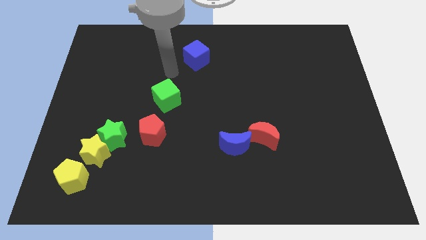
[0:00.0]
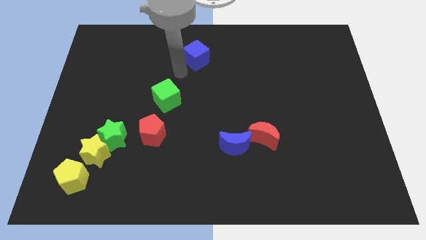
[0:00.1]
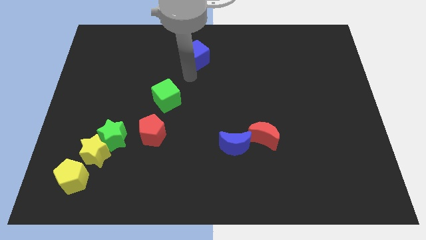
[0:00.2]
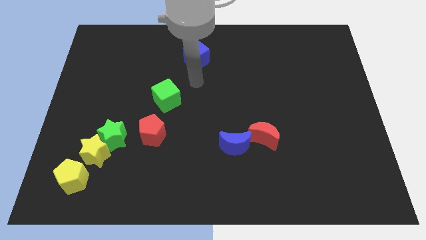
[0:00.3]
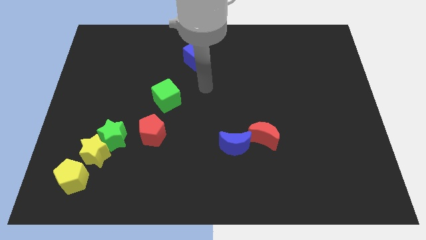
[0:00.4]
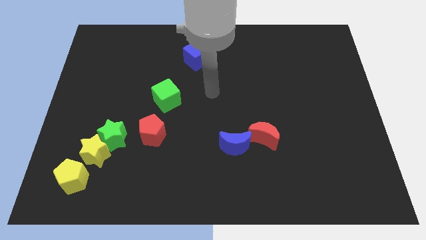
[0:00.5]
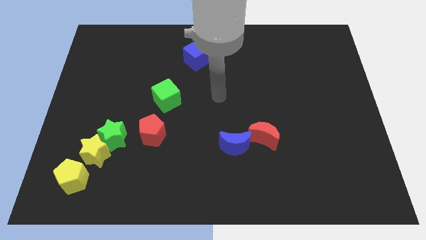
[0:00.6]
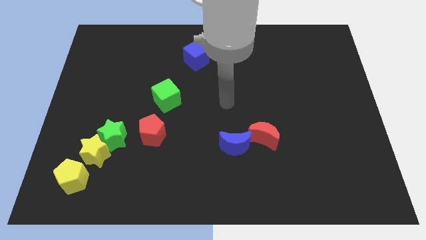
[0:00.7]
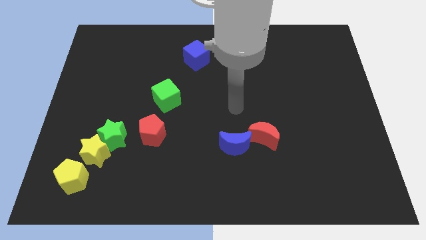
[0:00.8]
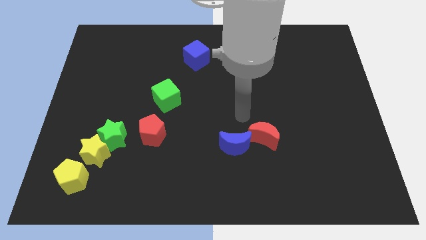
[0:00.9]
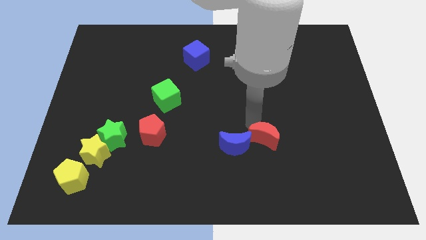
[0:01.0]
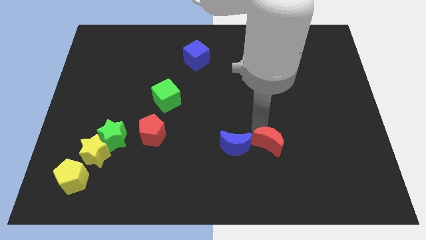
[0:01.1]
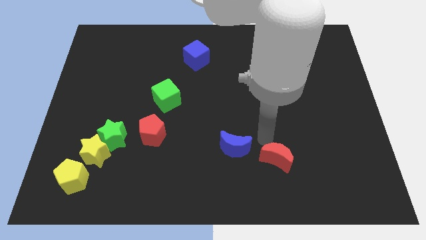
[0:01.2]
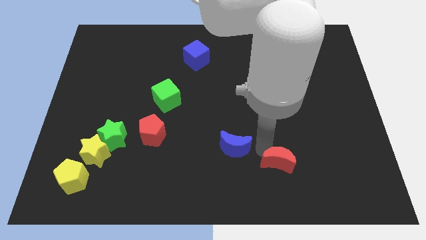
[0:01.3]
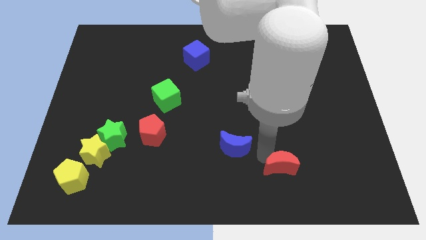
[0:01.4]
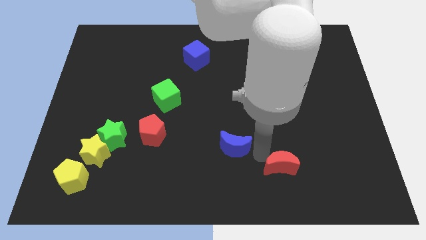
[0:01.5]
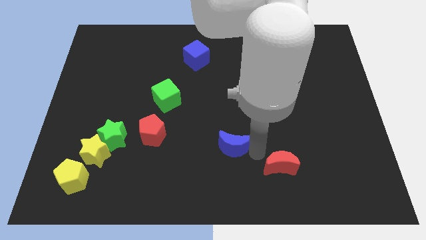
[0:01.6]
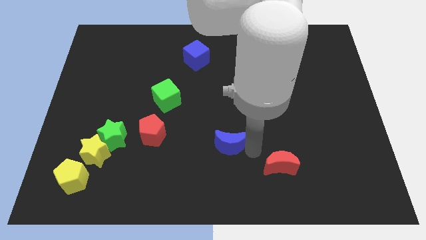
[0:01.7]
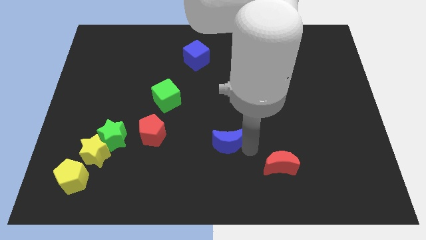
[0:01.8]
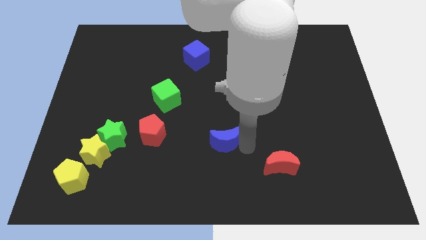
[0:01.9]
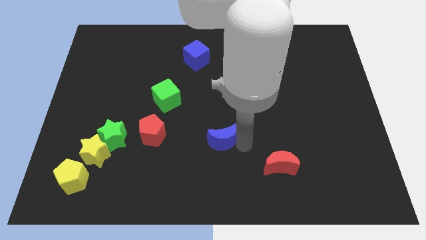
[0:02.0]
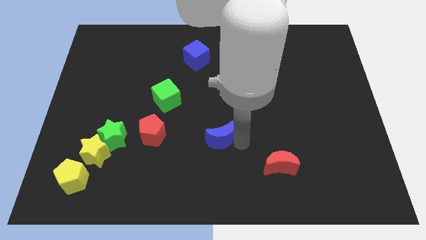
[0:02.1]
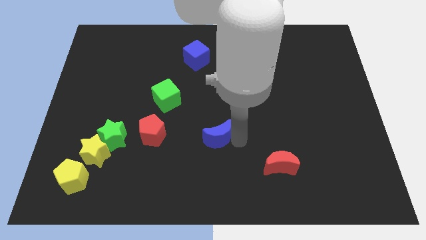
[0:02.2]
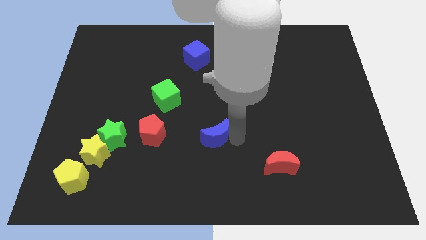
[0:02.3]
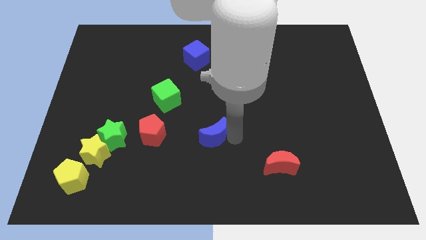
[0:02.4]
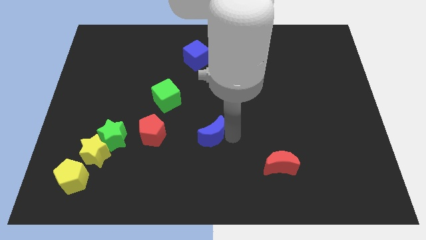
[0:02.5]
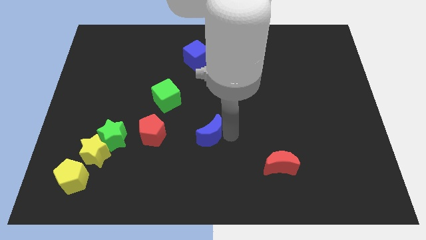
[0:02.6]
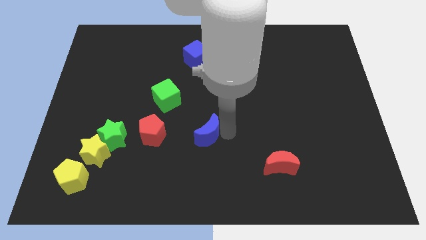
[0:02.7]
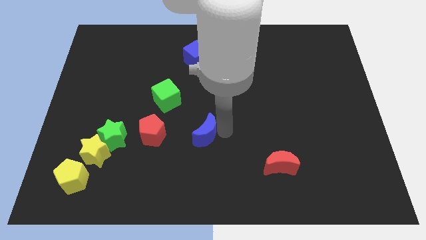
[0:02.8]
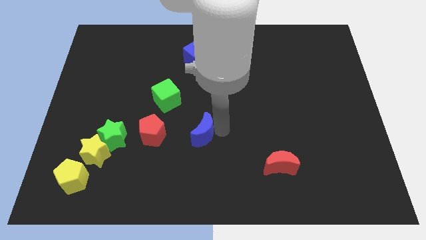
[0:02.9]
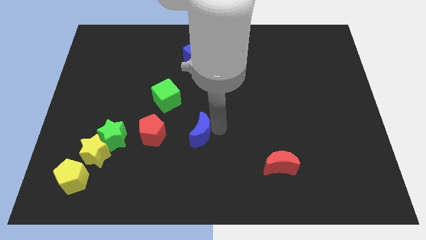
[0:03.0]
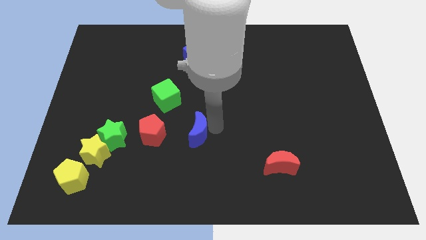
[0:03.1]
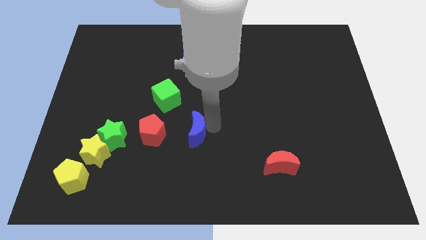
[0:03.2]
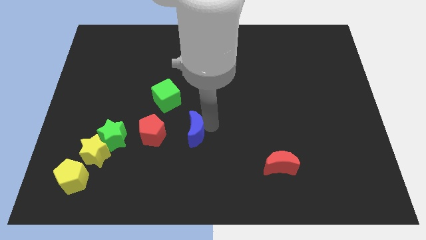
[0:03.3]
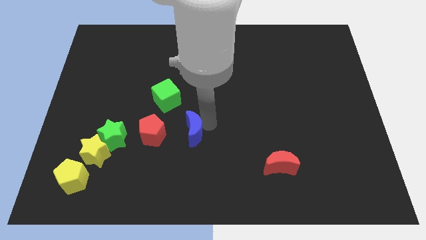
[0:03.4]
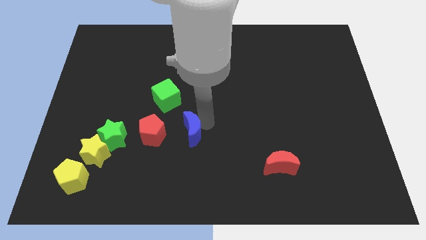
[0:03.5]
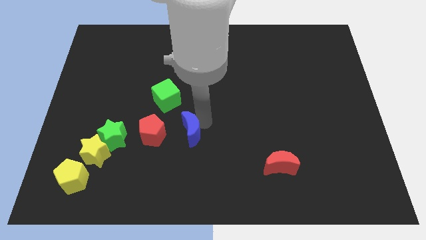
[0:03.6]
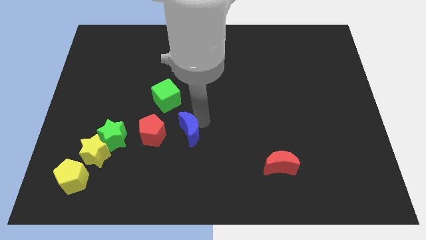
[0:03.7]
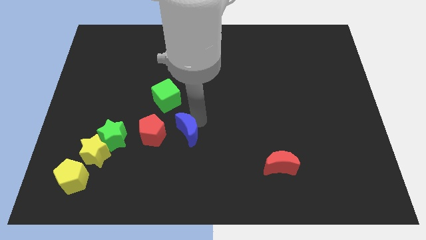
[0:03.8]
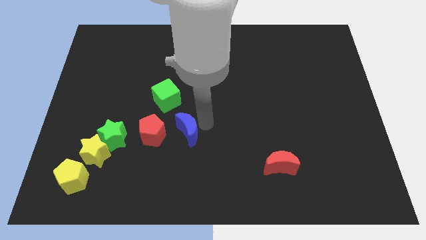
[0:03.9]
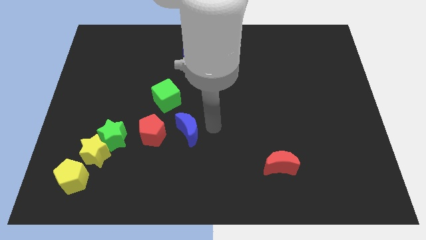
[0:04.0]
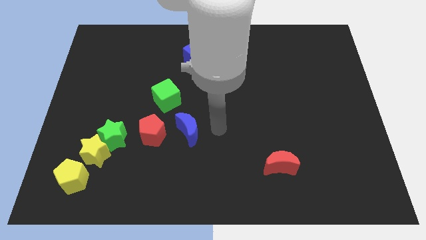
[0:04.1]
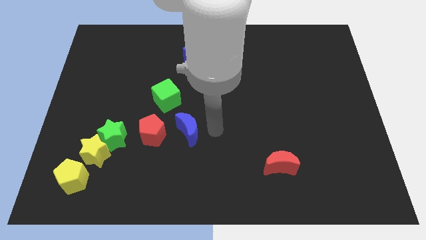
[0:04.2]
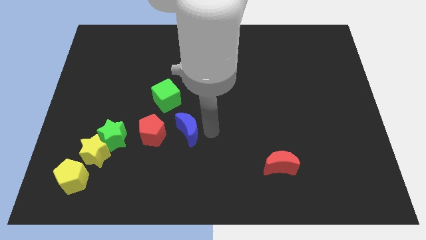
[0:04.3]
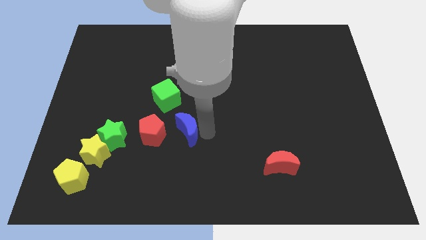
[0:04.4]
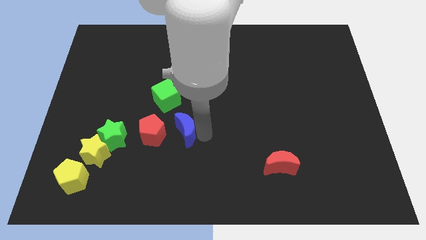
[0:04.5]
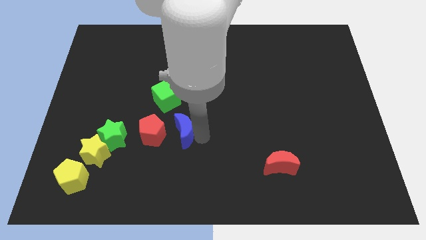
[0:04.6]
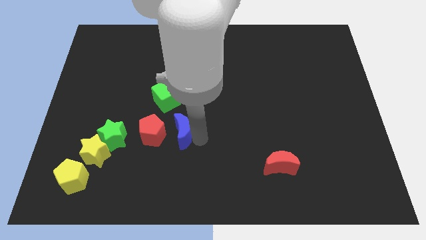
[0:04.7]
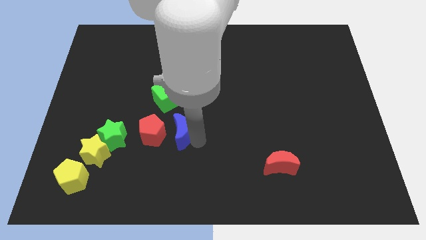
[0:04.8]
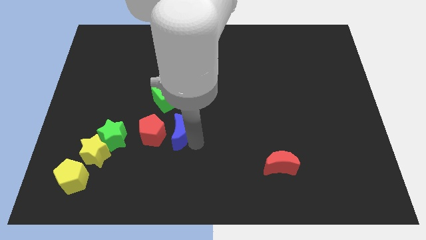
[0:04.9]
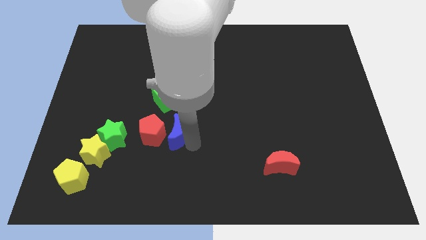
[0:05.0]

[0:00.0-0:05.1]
put the blue moon towards the red pentagon

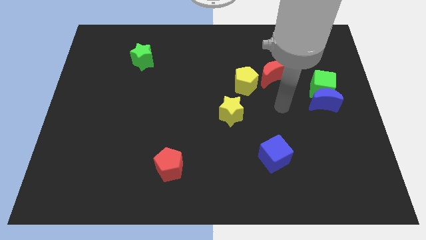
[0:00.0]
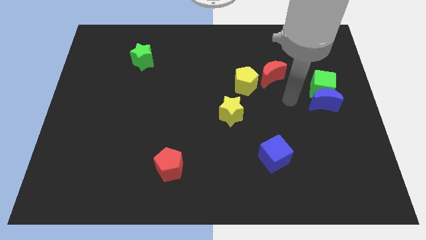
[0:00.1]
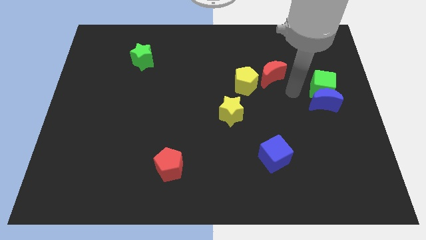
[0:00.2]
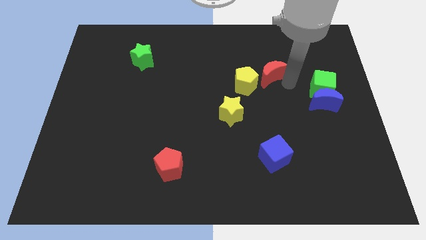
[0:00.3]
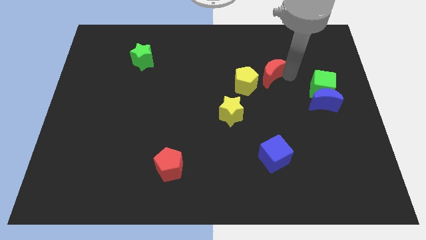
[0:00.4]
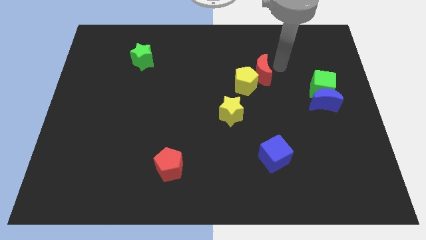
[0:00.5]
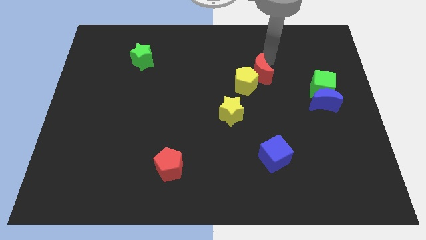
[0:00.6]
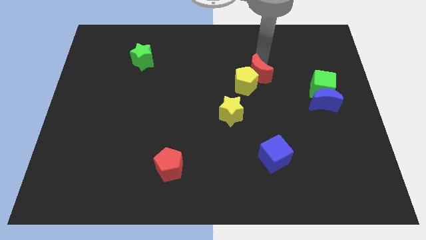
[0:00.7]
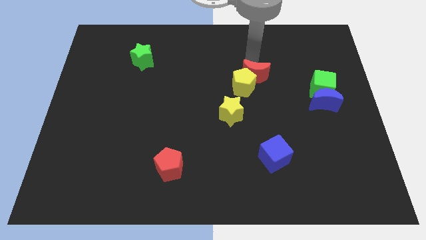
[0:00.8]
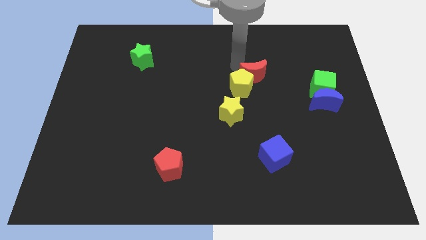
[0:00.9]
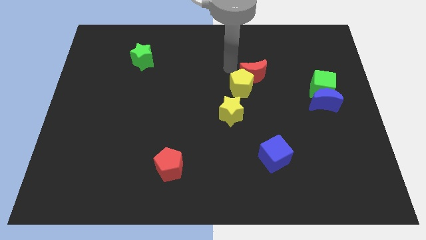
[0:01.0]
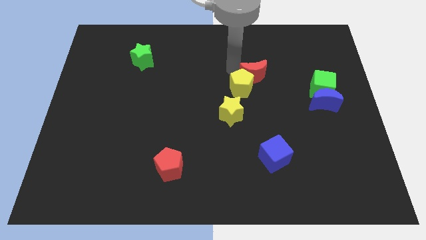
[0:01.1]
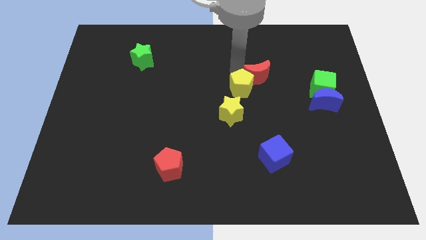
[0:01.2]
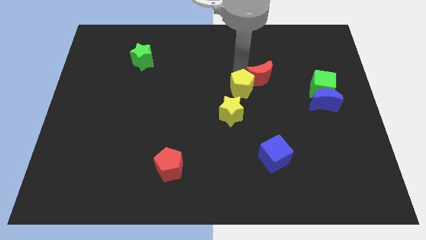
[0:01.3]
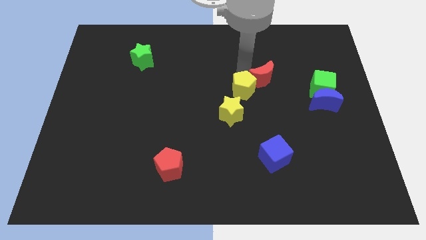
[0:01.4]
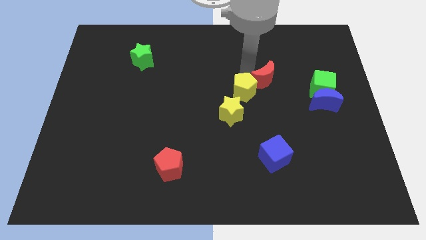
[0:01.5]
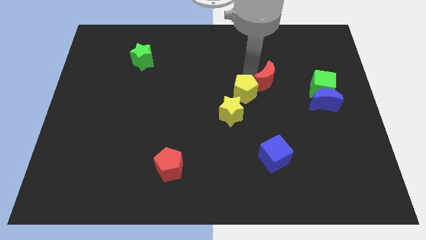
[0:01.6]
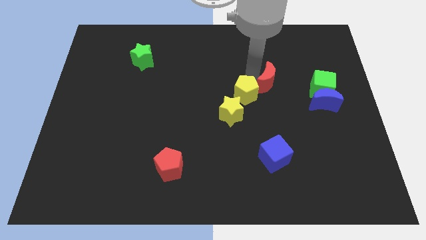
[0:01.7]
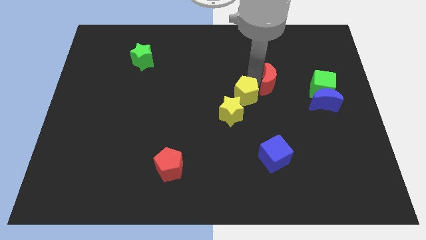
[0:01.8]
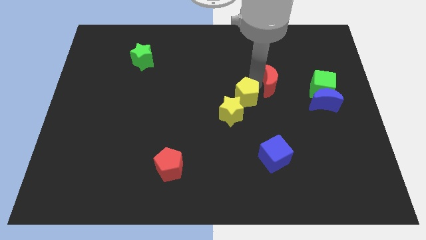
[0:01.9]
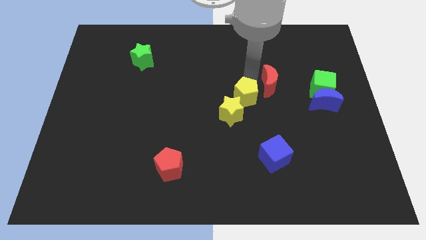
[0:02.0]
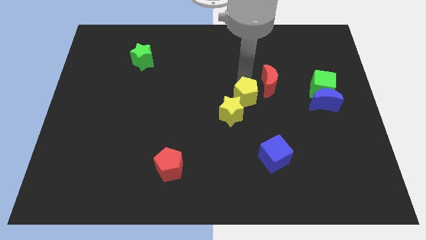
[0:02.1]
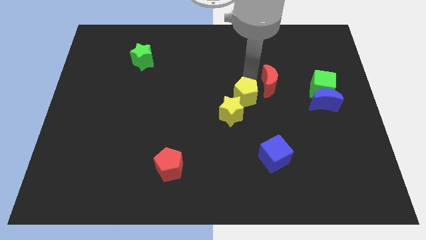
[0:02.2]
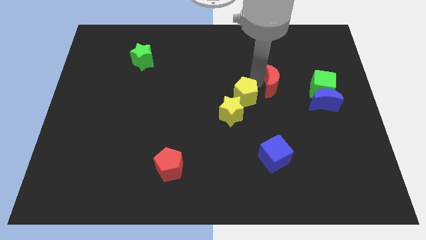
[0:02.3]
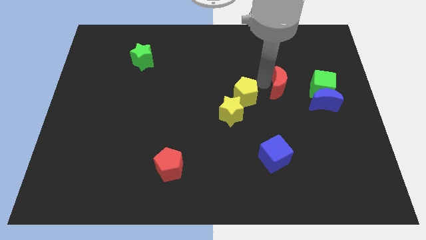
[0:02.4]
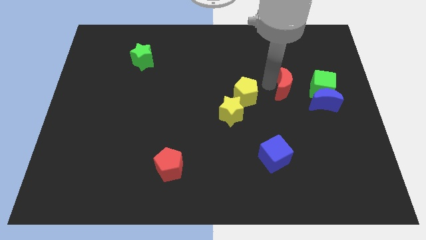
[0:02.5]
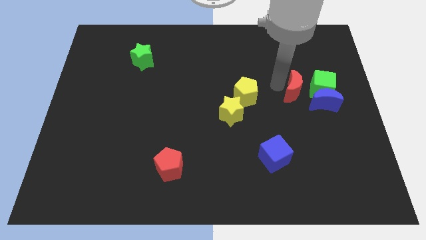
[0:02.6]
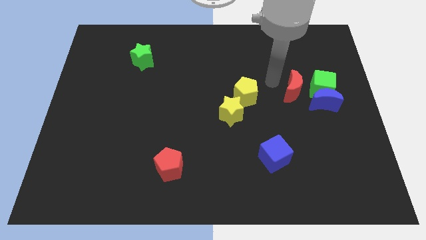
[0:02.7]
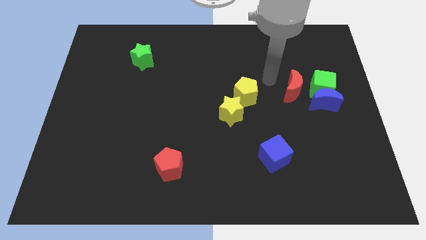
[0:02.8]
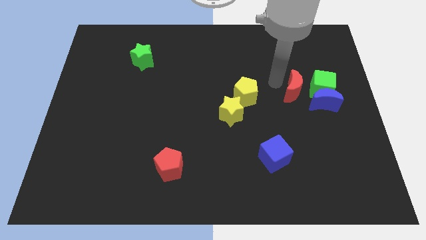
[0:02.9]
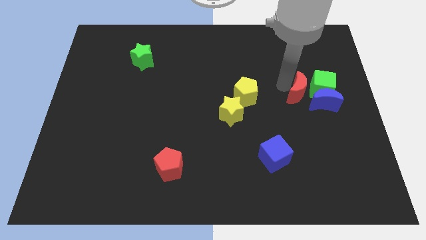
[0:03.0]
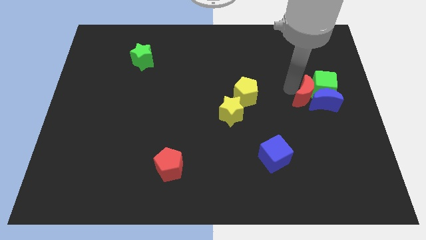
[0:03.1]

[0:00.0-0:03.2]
put the red moon towards the blue moon
